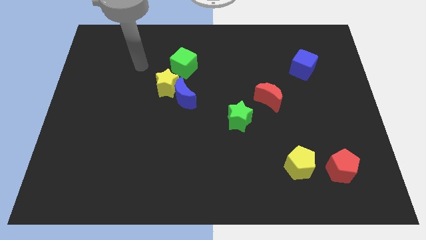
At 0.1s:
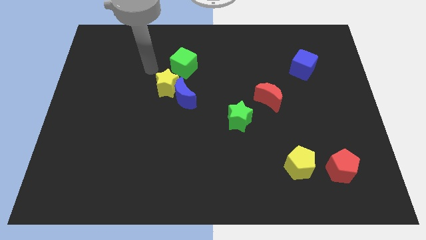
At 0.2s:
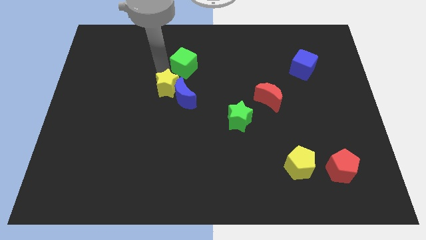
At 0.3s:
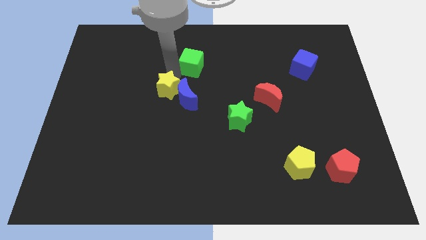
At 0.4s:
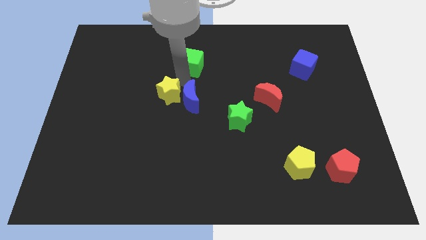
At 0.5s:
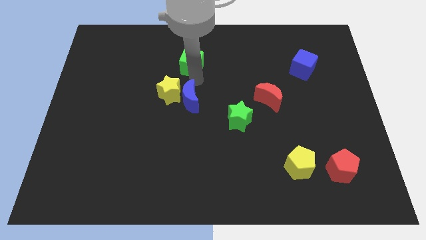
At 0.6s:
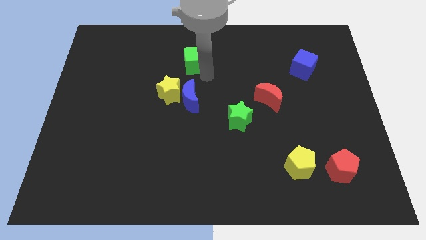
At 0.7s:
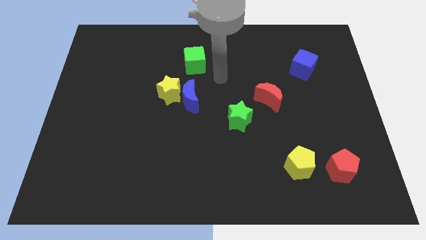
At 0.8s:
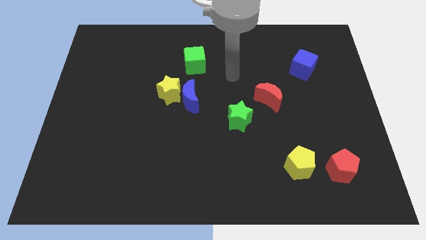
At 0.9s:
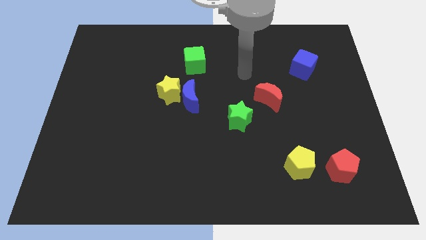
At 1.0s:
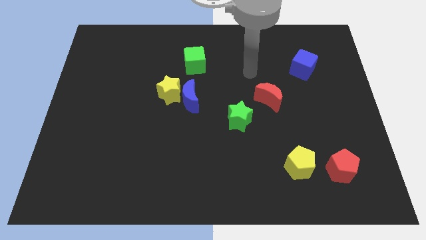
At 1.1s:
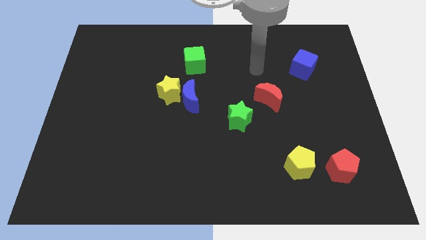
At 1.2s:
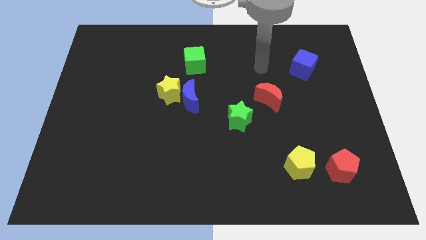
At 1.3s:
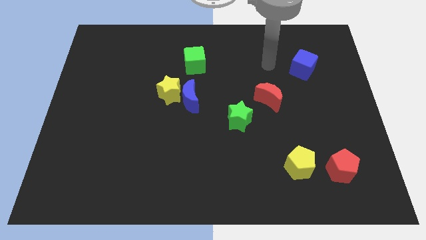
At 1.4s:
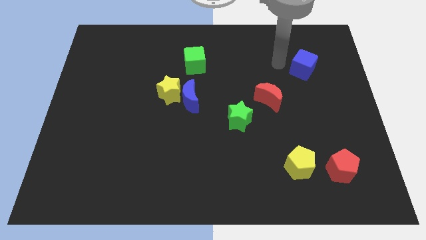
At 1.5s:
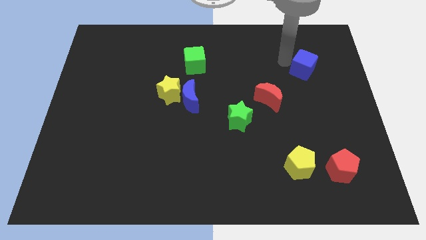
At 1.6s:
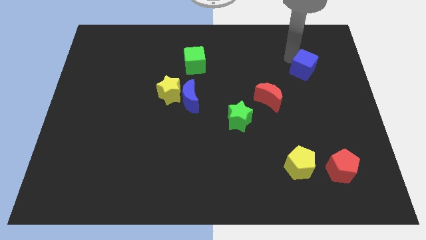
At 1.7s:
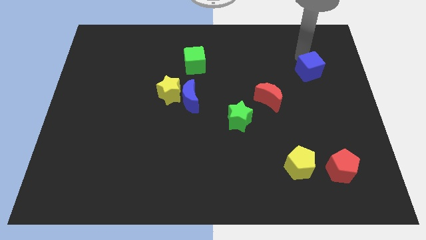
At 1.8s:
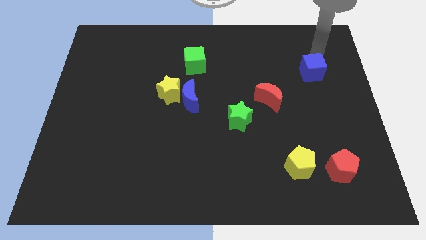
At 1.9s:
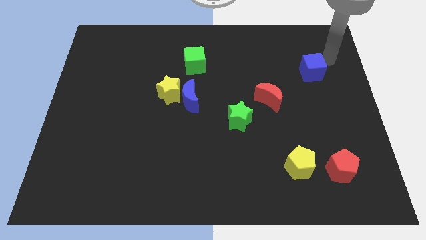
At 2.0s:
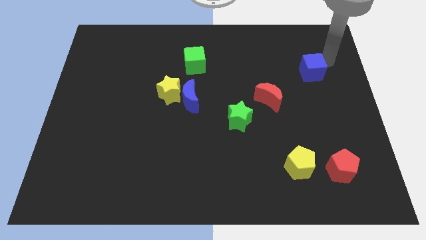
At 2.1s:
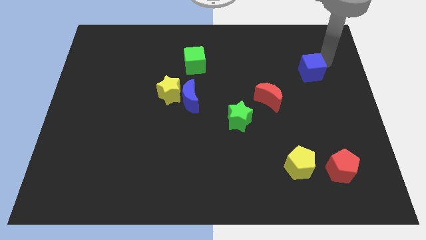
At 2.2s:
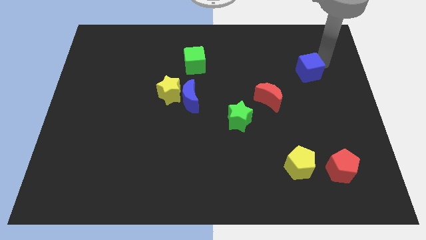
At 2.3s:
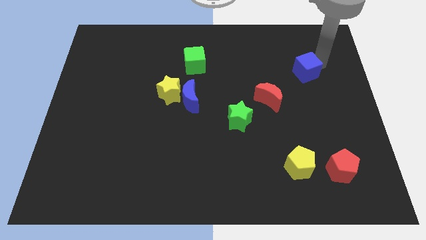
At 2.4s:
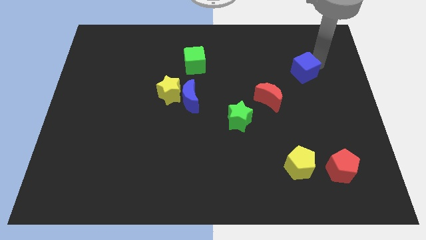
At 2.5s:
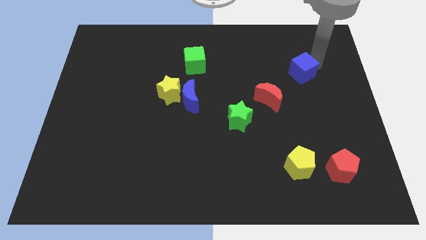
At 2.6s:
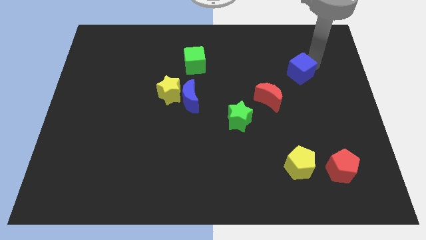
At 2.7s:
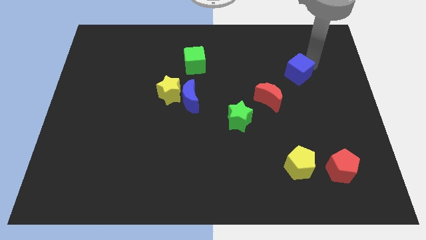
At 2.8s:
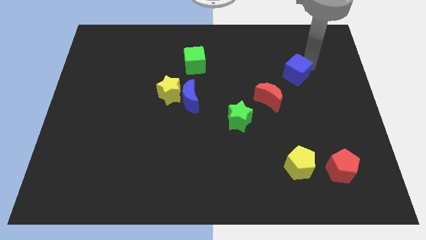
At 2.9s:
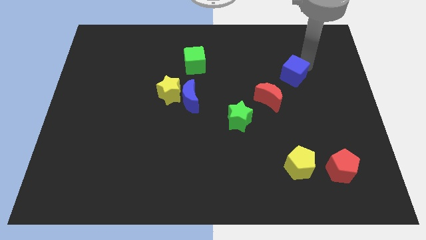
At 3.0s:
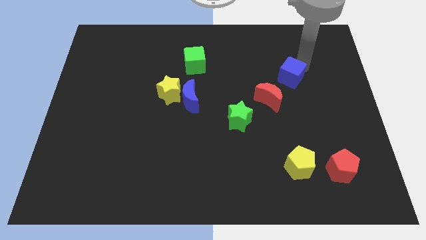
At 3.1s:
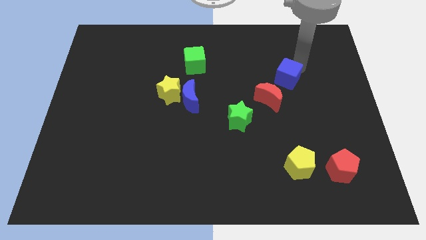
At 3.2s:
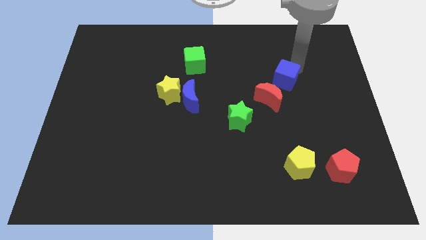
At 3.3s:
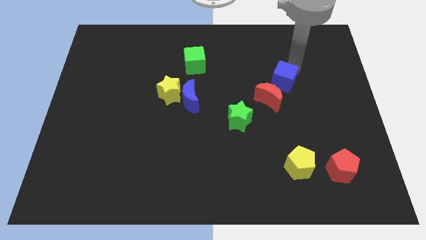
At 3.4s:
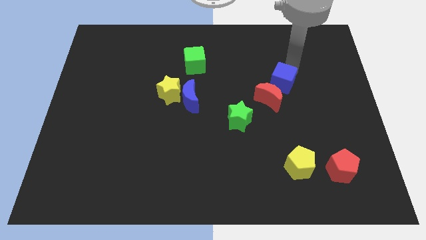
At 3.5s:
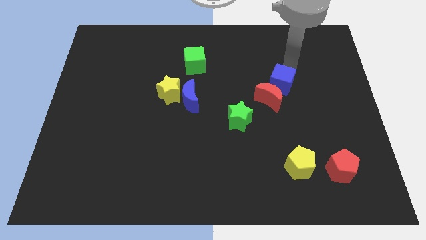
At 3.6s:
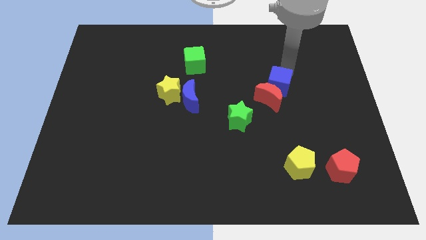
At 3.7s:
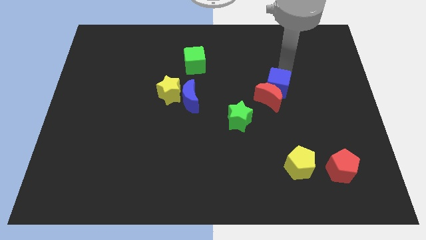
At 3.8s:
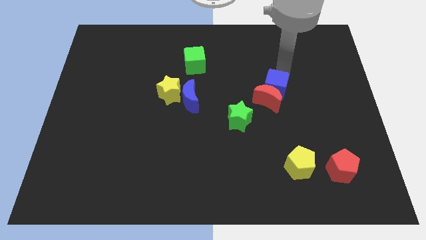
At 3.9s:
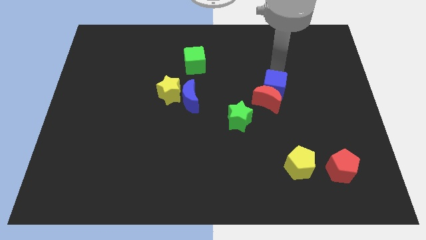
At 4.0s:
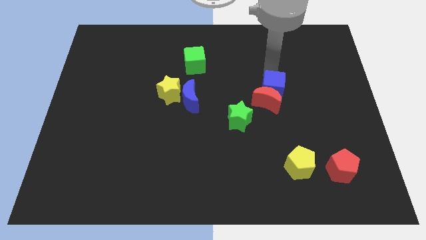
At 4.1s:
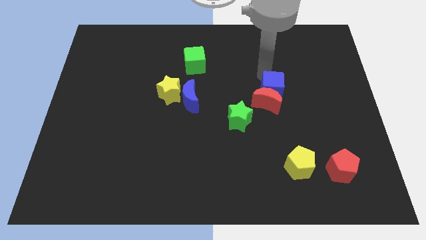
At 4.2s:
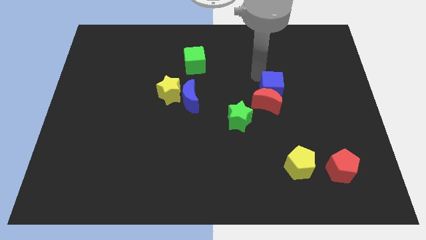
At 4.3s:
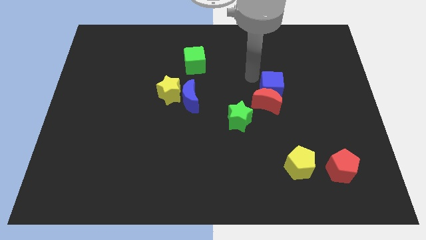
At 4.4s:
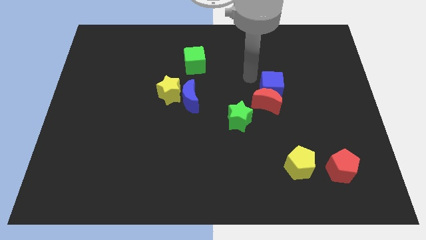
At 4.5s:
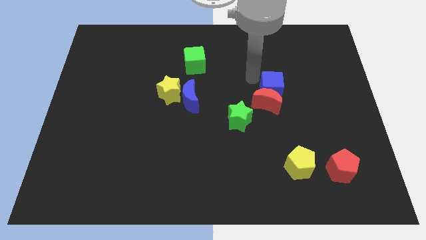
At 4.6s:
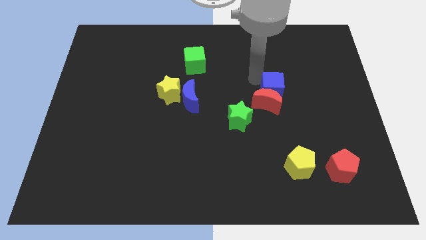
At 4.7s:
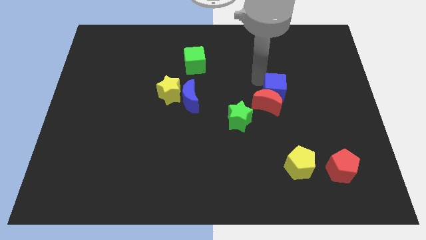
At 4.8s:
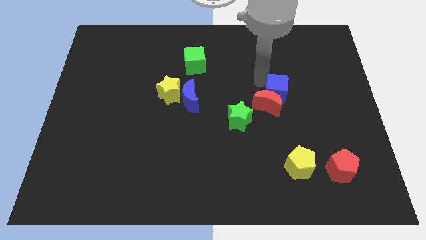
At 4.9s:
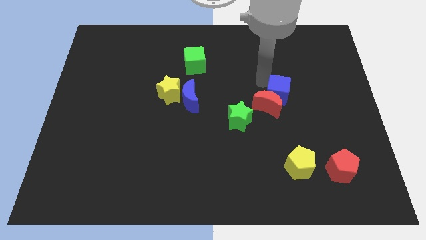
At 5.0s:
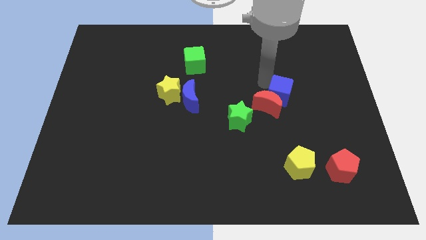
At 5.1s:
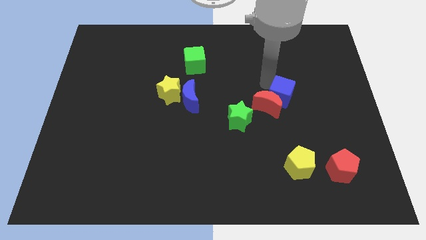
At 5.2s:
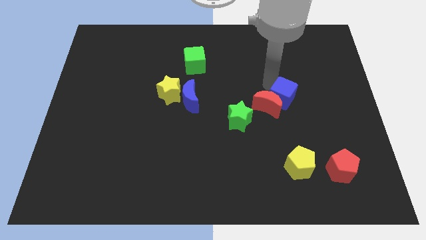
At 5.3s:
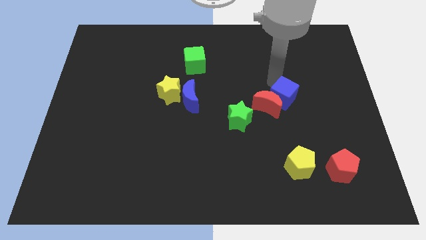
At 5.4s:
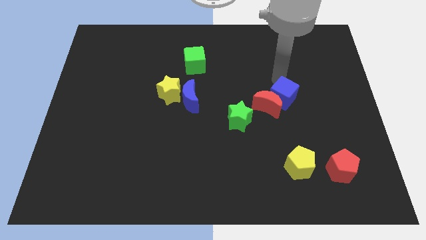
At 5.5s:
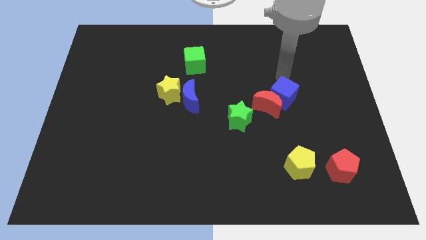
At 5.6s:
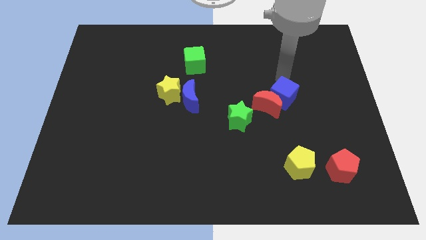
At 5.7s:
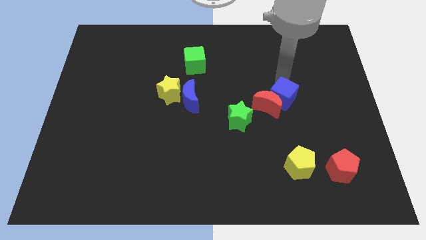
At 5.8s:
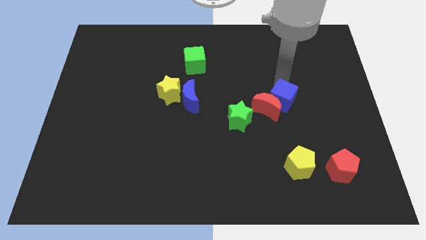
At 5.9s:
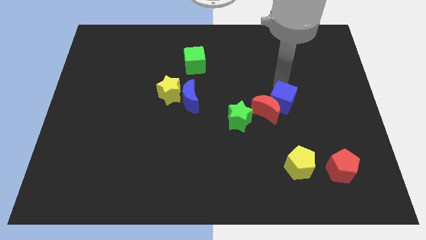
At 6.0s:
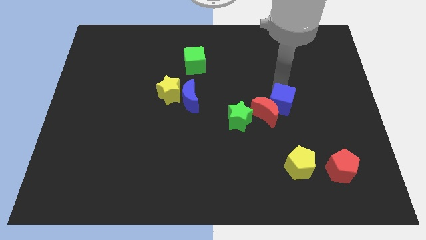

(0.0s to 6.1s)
slide the blue cube to the right side of the green star
